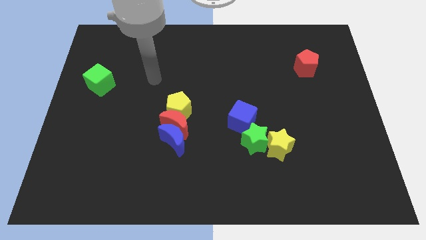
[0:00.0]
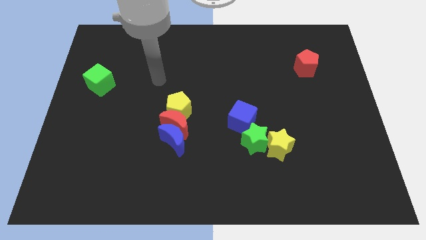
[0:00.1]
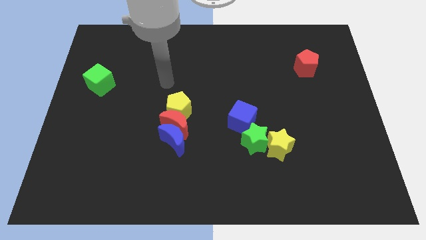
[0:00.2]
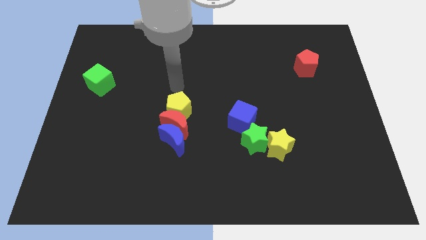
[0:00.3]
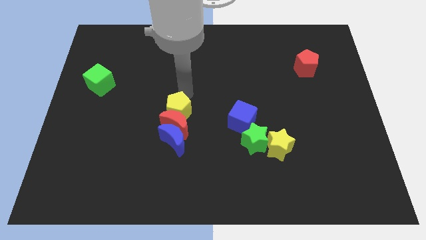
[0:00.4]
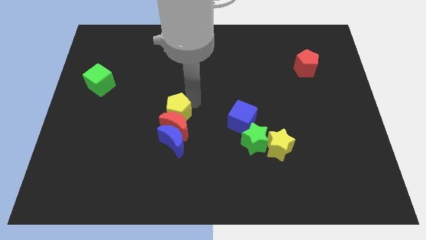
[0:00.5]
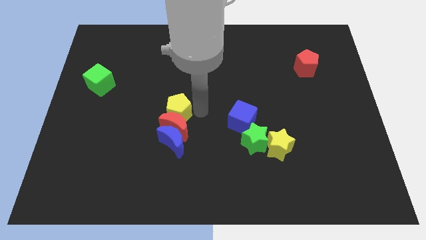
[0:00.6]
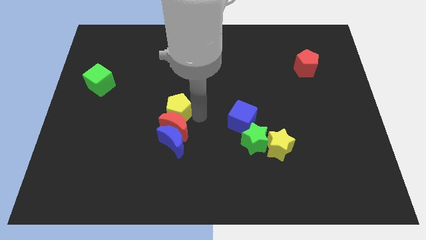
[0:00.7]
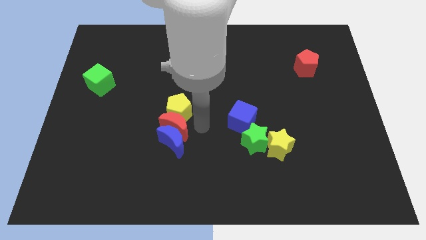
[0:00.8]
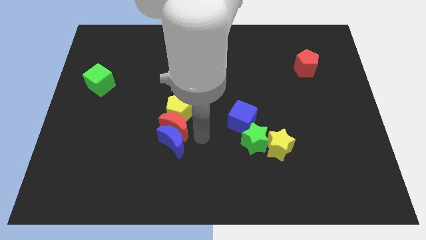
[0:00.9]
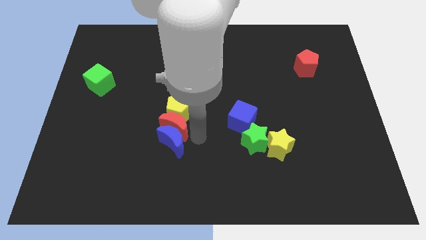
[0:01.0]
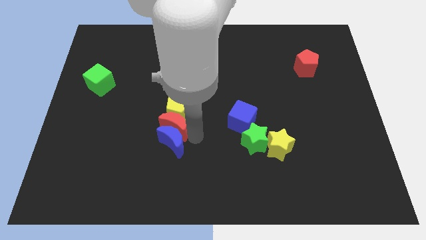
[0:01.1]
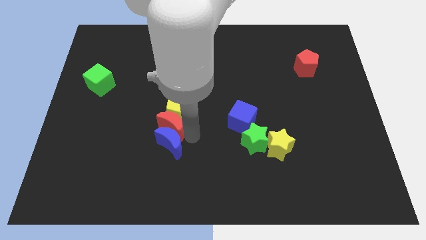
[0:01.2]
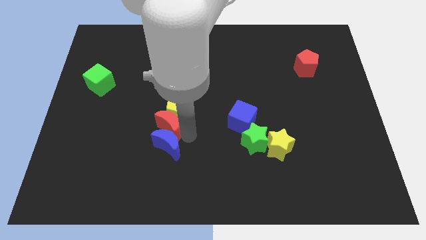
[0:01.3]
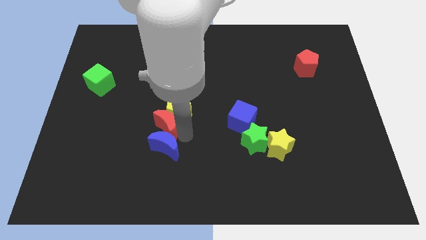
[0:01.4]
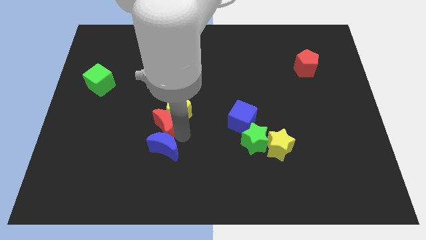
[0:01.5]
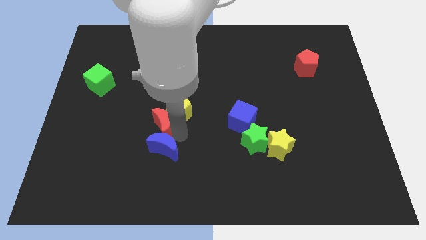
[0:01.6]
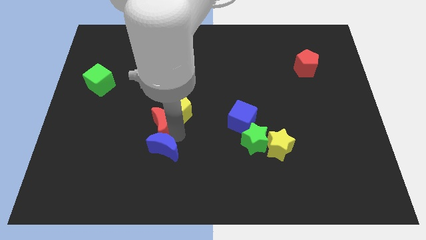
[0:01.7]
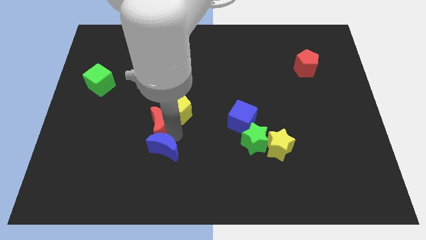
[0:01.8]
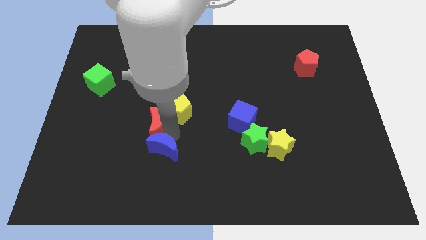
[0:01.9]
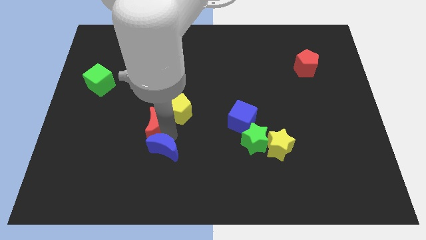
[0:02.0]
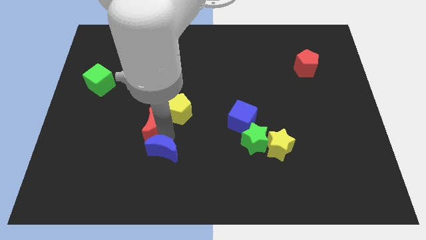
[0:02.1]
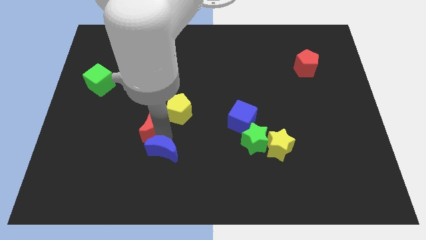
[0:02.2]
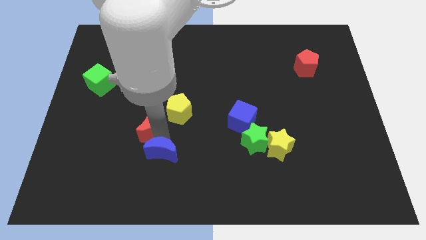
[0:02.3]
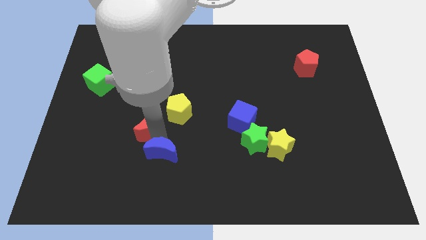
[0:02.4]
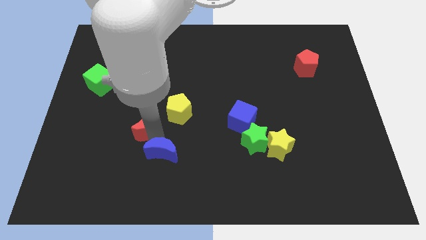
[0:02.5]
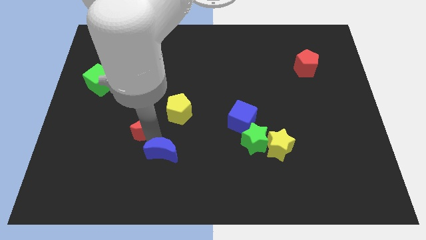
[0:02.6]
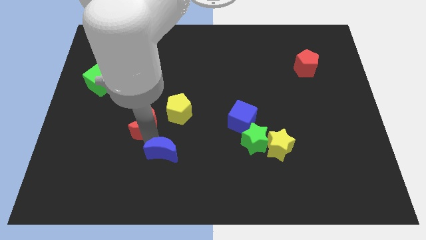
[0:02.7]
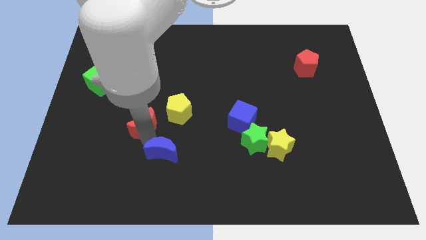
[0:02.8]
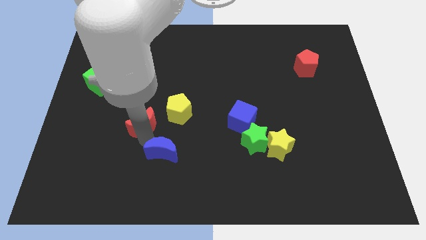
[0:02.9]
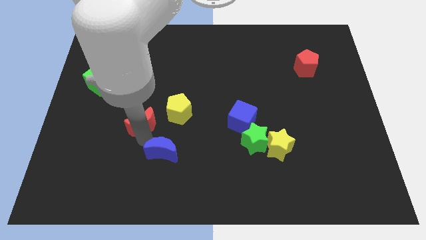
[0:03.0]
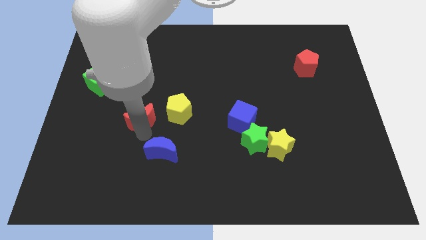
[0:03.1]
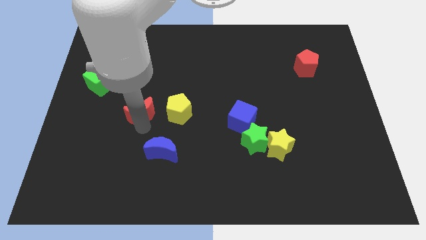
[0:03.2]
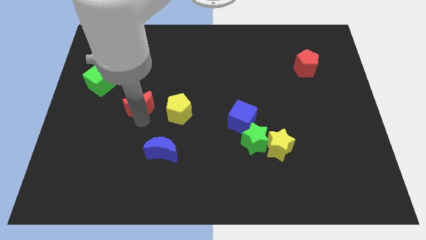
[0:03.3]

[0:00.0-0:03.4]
pull the red moon apart from the blue moon and yellow pentagon

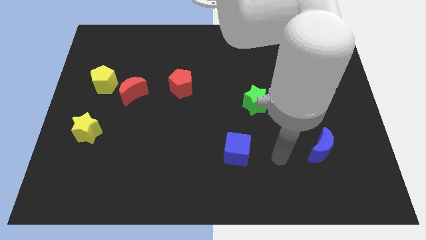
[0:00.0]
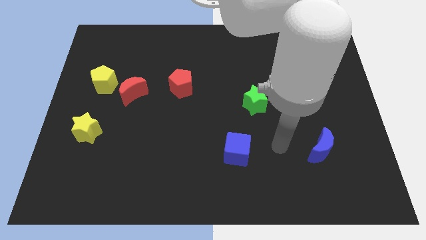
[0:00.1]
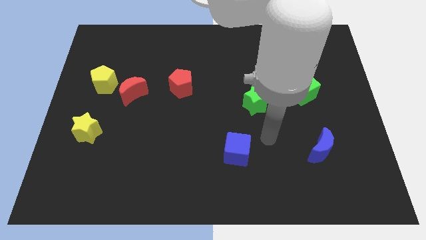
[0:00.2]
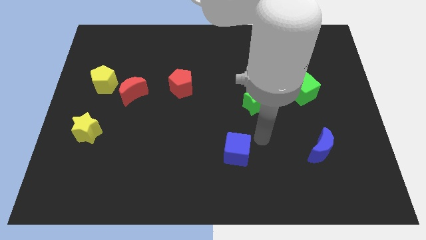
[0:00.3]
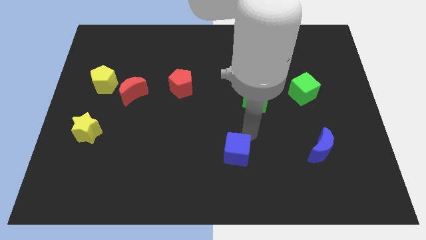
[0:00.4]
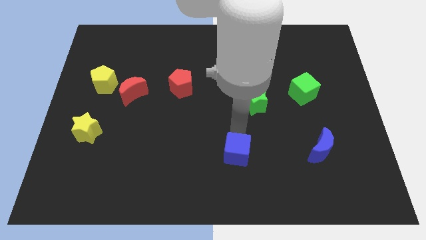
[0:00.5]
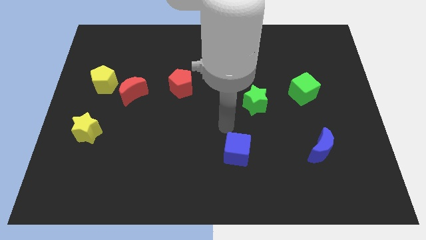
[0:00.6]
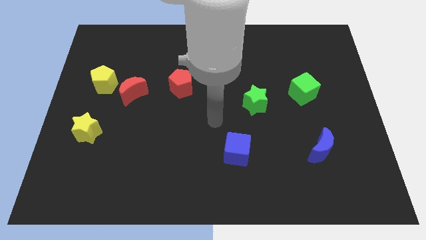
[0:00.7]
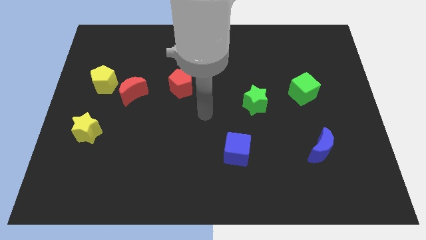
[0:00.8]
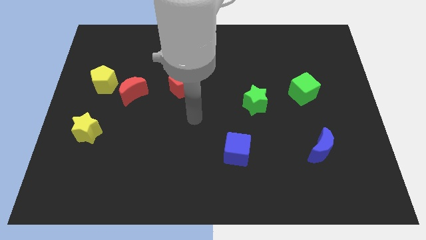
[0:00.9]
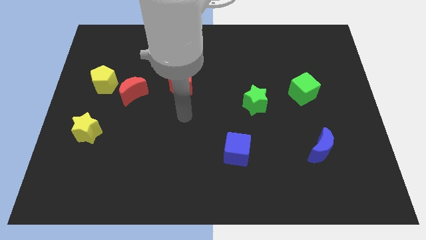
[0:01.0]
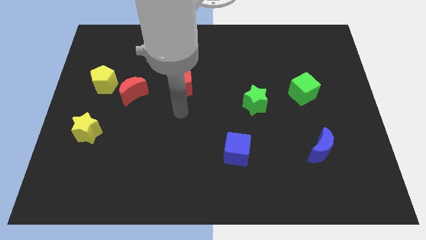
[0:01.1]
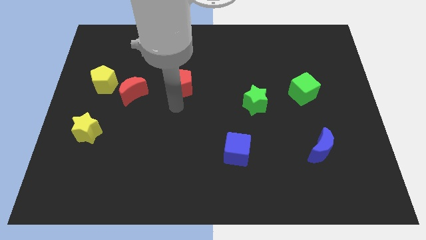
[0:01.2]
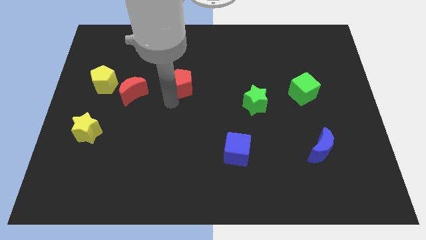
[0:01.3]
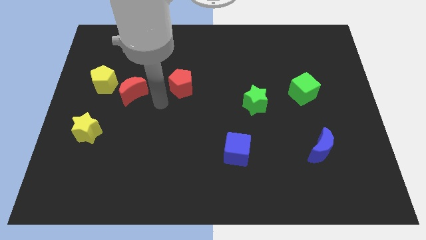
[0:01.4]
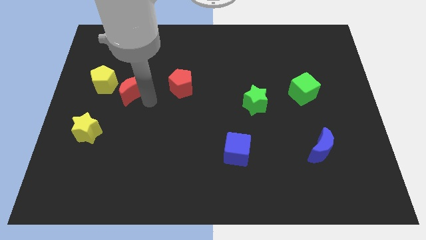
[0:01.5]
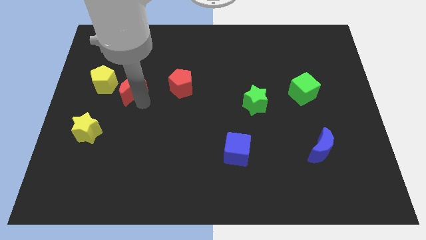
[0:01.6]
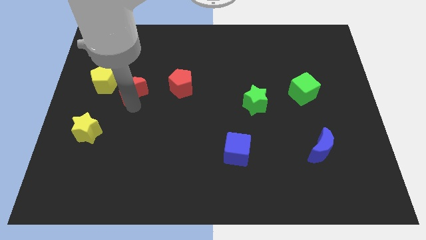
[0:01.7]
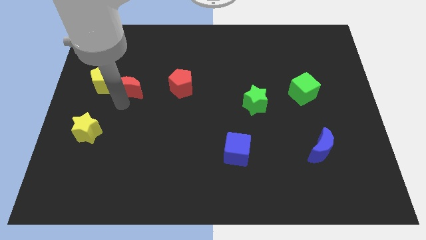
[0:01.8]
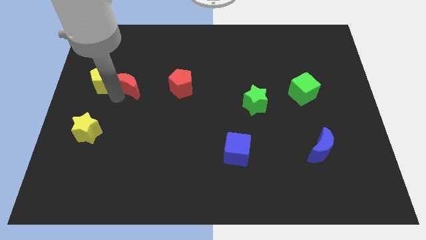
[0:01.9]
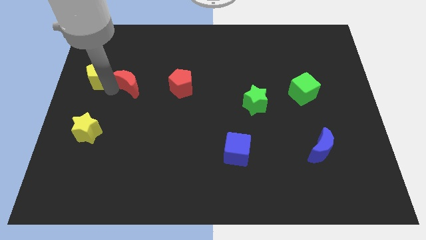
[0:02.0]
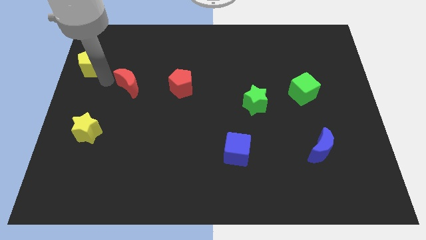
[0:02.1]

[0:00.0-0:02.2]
pull the red moon apart from the yellow pentagon

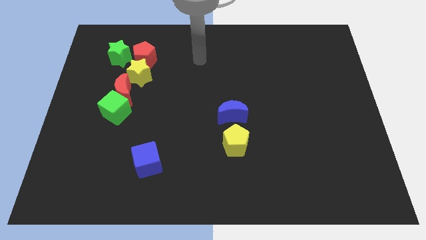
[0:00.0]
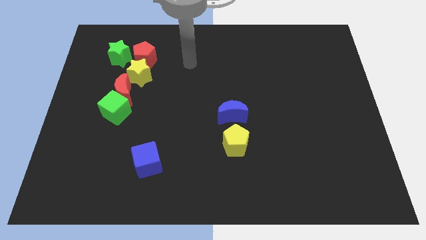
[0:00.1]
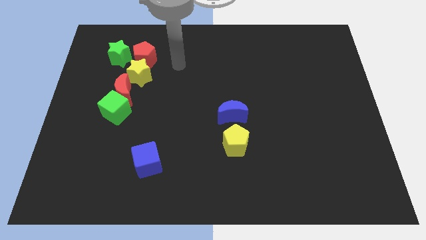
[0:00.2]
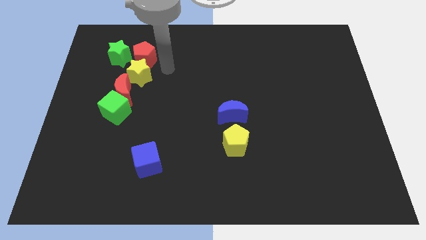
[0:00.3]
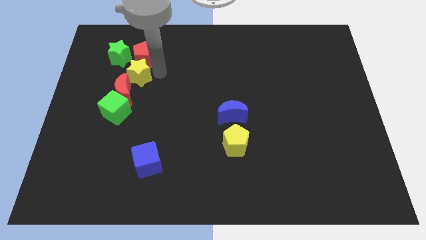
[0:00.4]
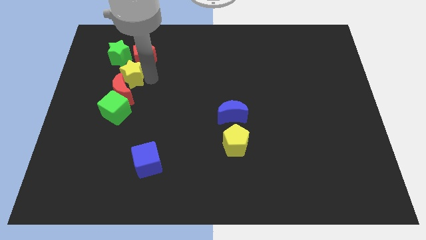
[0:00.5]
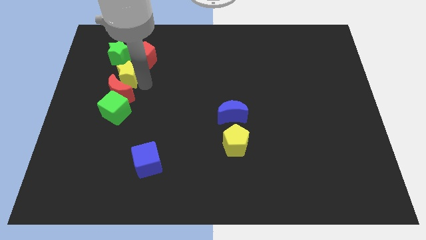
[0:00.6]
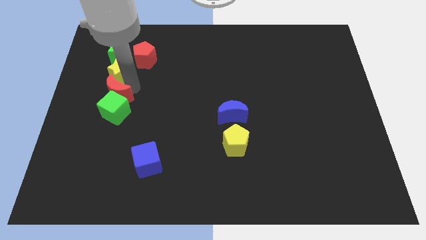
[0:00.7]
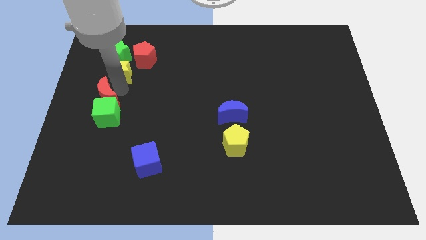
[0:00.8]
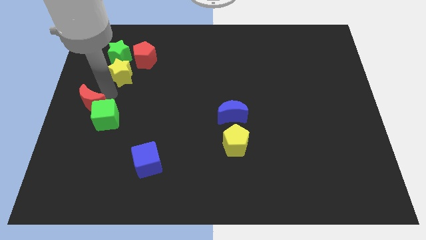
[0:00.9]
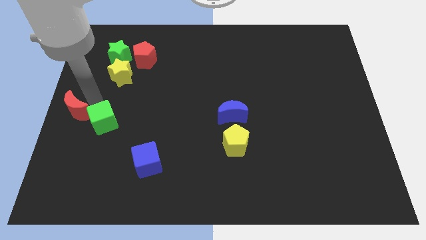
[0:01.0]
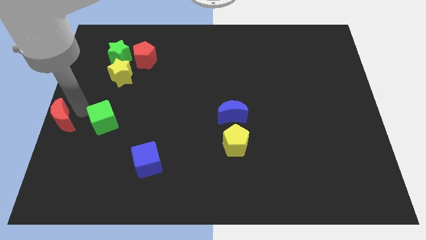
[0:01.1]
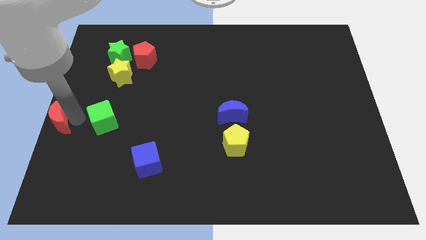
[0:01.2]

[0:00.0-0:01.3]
separate the green cube from the red moon

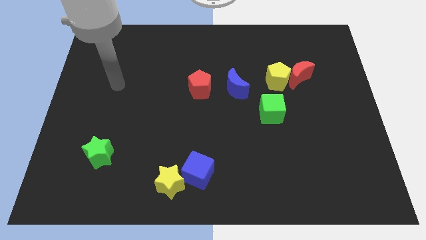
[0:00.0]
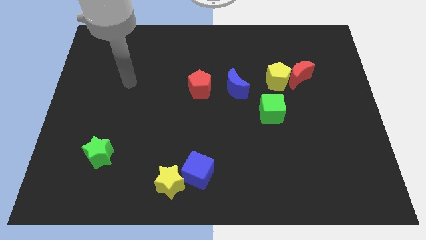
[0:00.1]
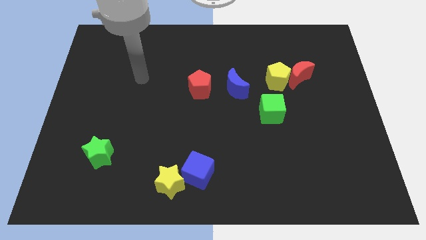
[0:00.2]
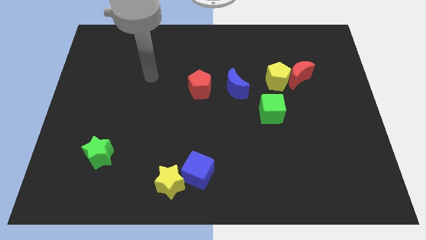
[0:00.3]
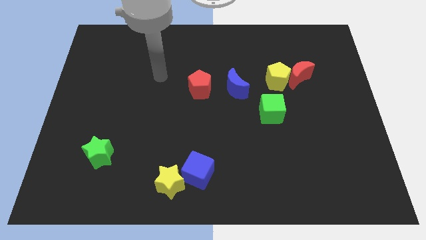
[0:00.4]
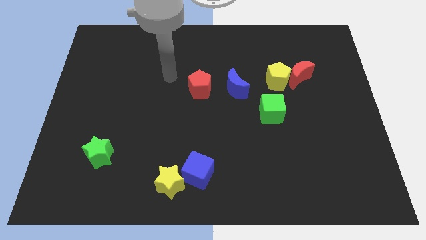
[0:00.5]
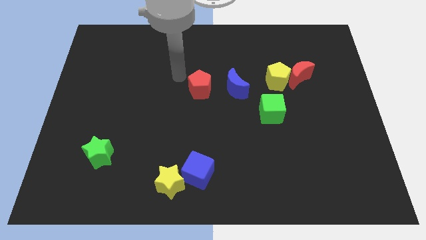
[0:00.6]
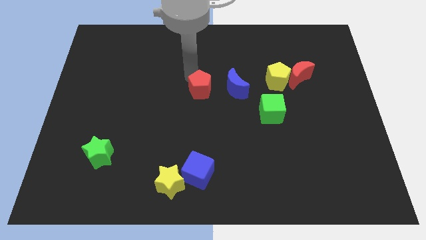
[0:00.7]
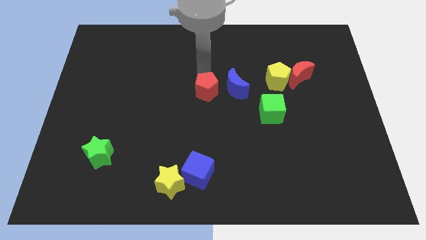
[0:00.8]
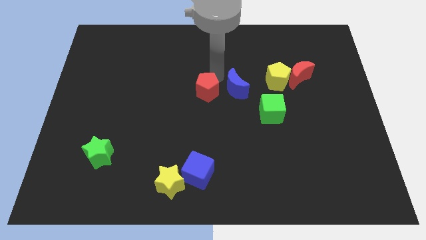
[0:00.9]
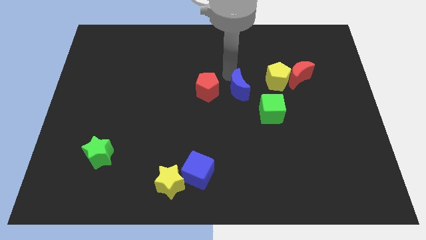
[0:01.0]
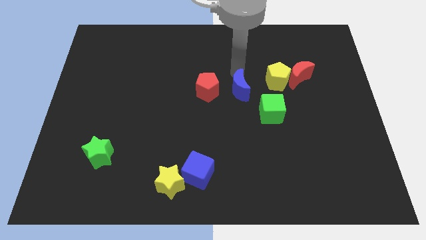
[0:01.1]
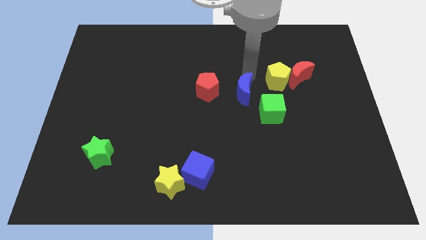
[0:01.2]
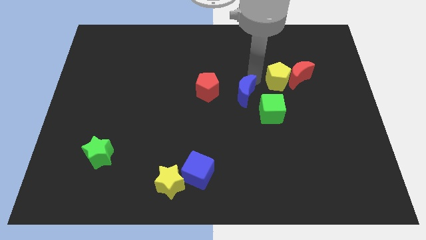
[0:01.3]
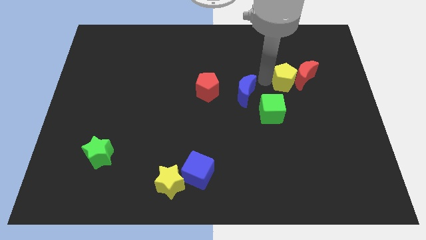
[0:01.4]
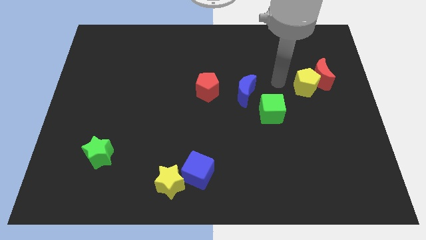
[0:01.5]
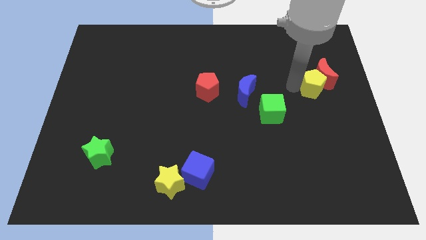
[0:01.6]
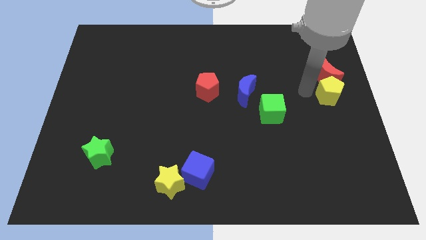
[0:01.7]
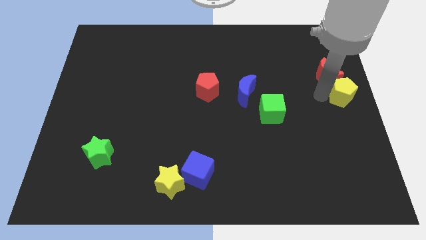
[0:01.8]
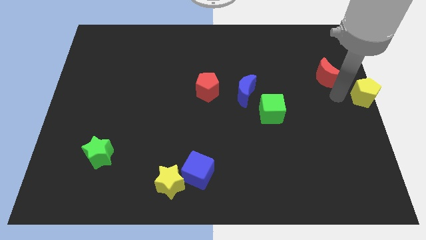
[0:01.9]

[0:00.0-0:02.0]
separate the red moon from the yellow pentagon

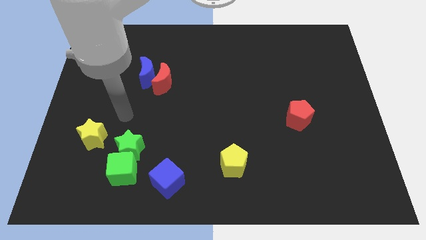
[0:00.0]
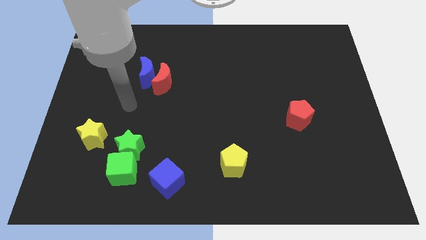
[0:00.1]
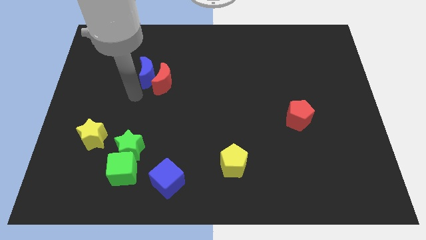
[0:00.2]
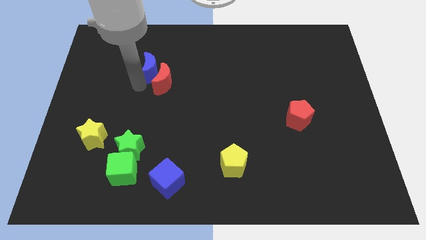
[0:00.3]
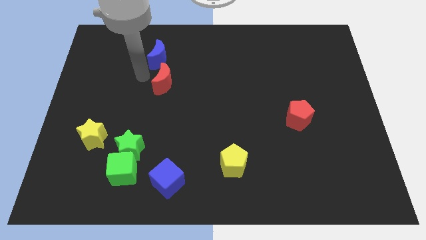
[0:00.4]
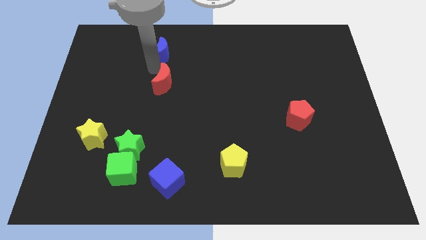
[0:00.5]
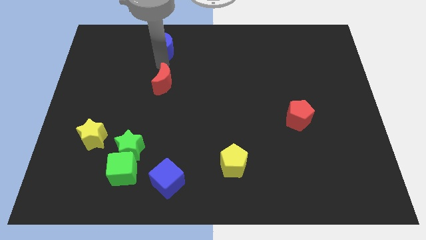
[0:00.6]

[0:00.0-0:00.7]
separate the red moon from the blue moon
